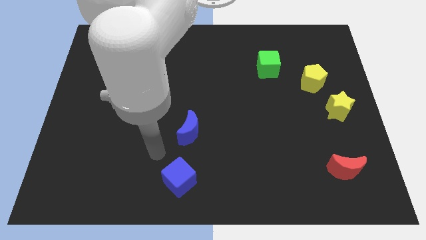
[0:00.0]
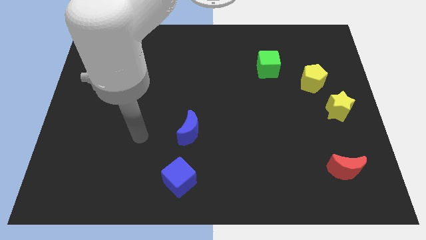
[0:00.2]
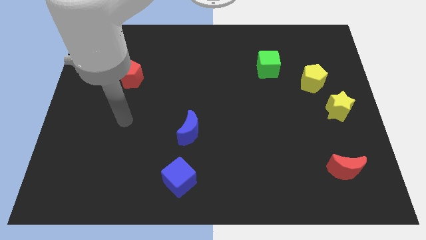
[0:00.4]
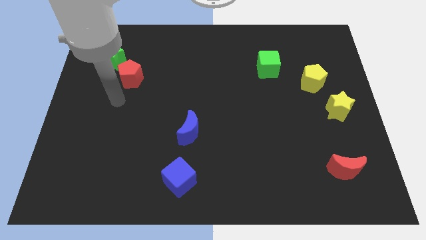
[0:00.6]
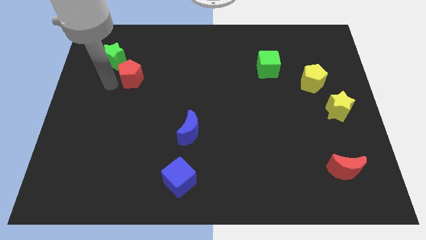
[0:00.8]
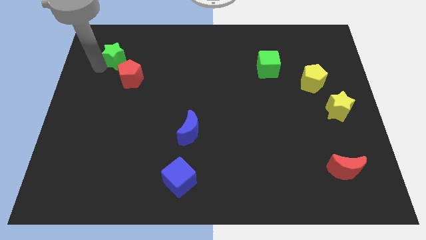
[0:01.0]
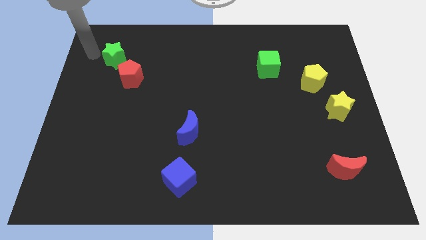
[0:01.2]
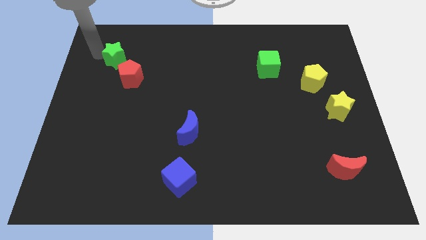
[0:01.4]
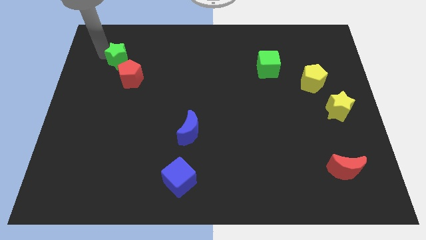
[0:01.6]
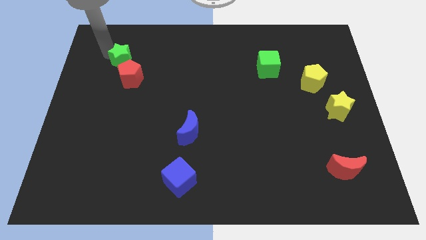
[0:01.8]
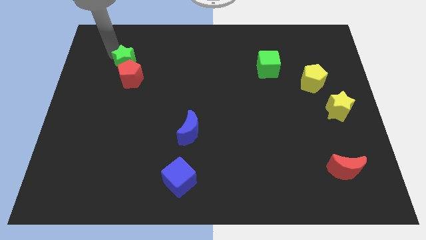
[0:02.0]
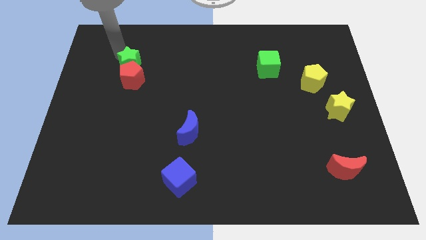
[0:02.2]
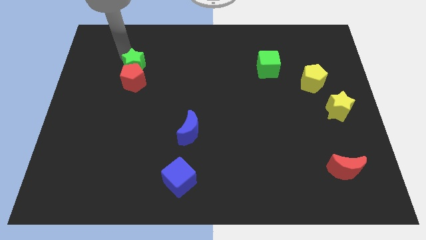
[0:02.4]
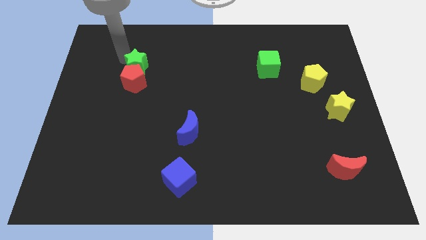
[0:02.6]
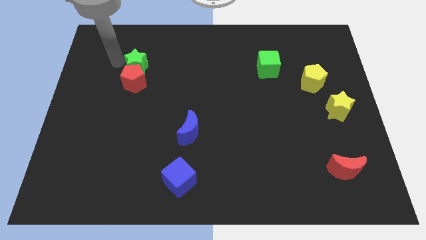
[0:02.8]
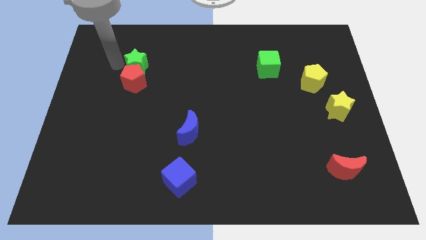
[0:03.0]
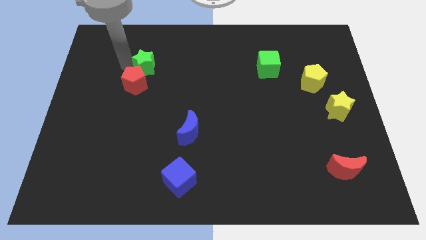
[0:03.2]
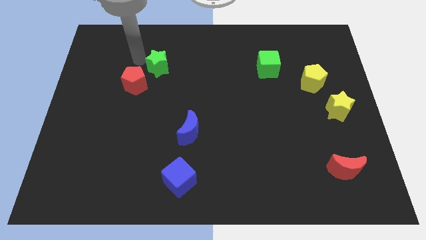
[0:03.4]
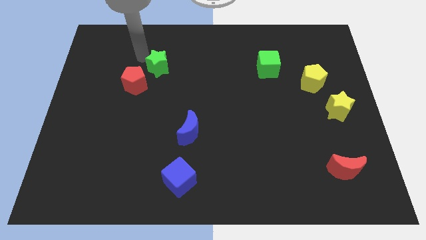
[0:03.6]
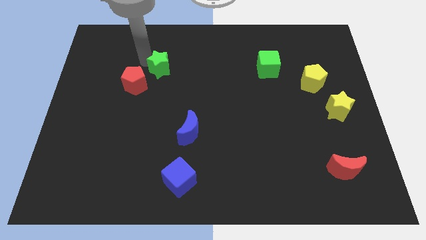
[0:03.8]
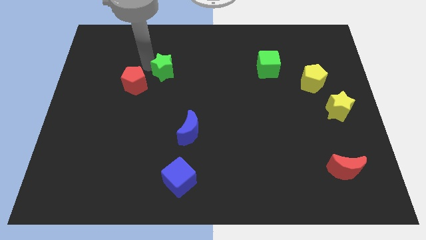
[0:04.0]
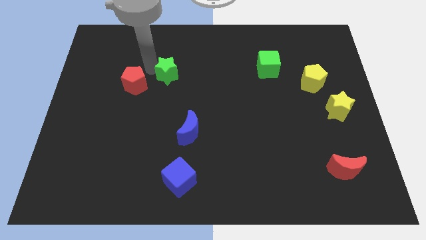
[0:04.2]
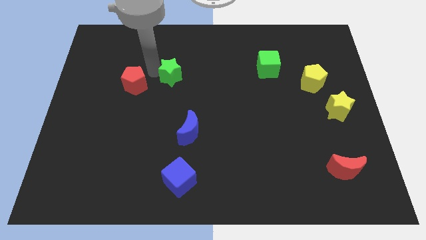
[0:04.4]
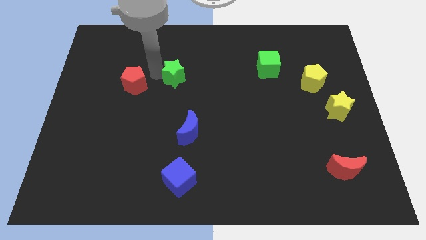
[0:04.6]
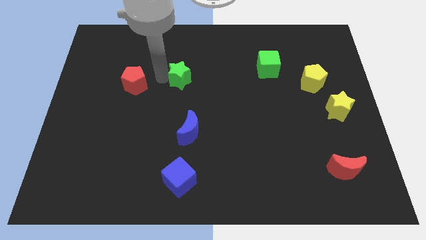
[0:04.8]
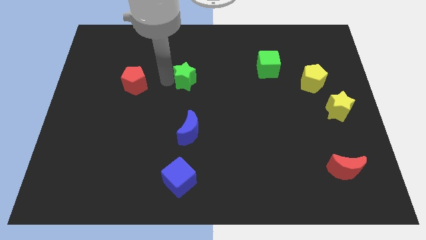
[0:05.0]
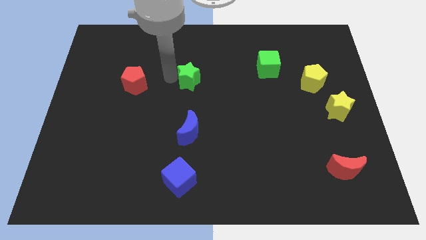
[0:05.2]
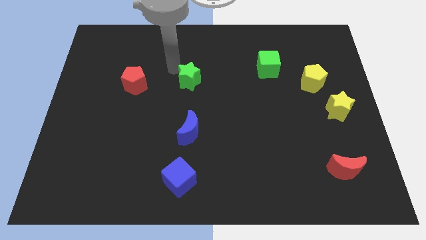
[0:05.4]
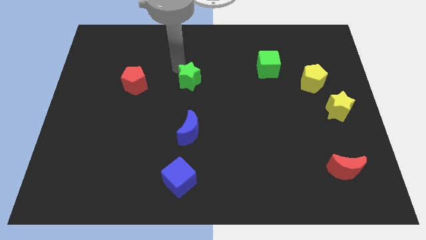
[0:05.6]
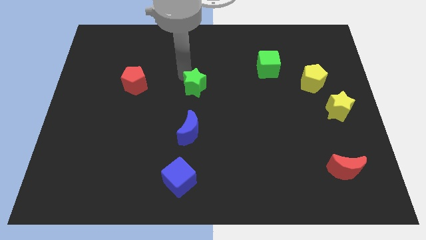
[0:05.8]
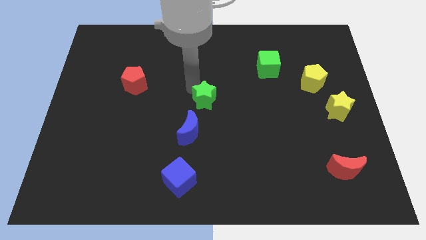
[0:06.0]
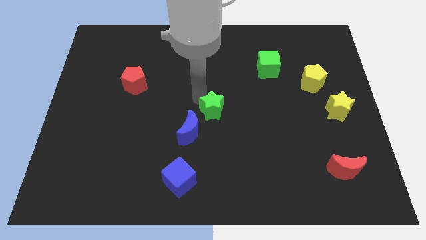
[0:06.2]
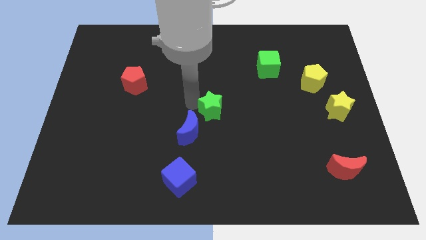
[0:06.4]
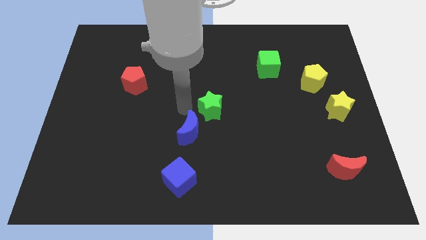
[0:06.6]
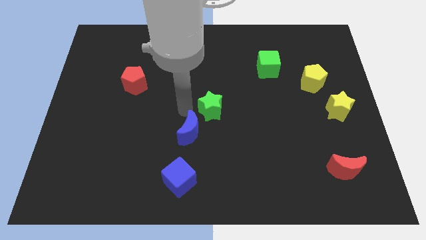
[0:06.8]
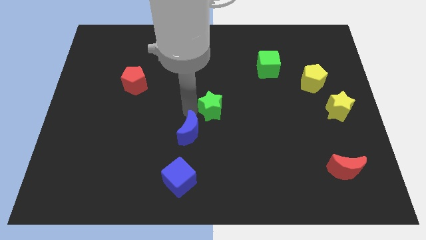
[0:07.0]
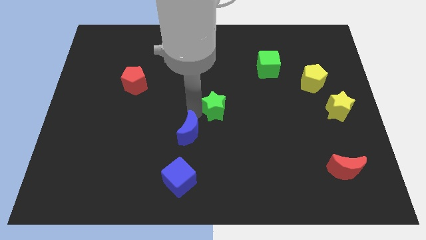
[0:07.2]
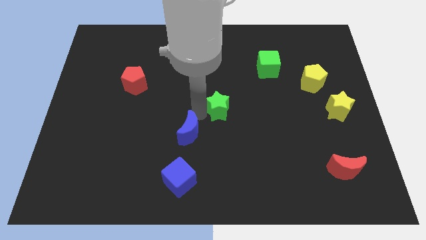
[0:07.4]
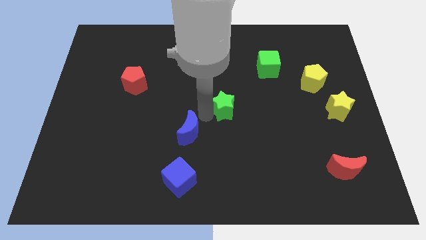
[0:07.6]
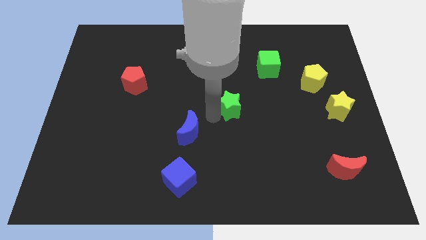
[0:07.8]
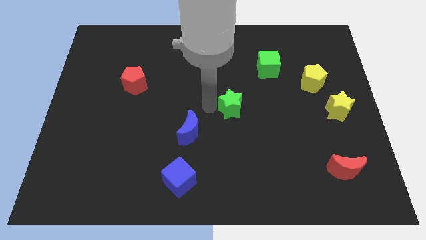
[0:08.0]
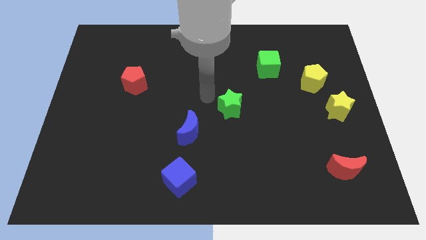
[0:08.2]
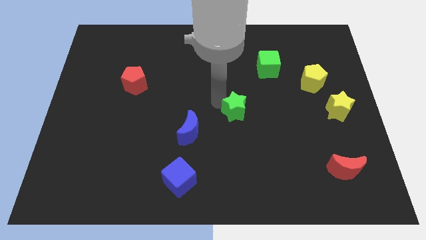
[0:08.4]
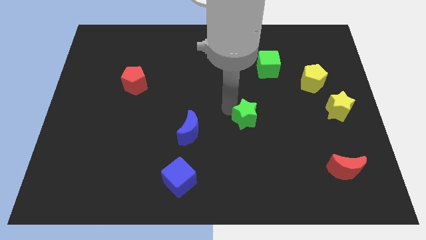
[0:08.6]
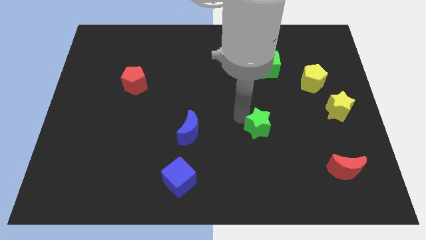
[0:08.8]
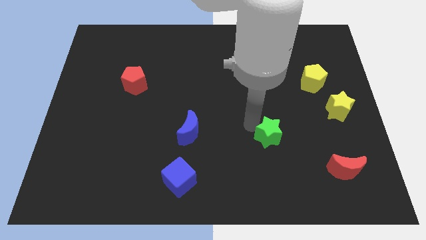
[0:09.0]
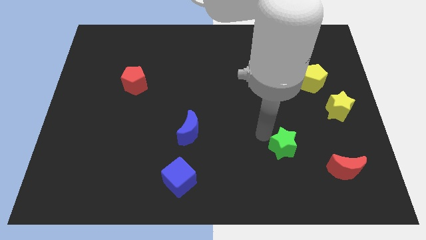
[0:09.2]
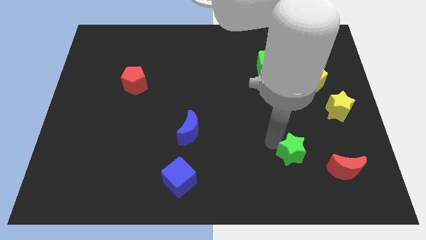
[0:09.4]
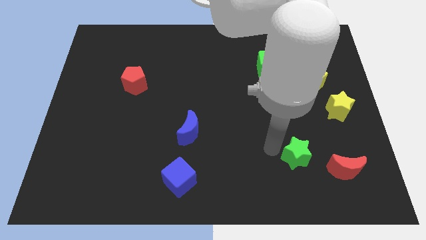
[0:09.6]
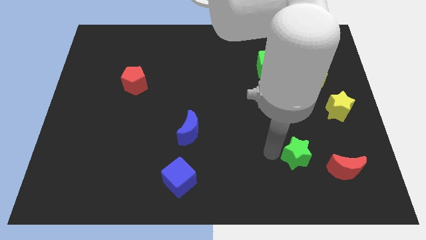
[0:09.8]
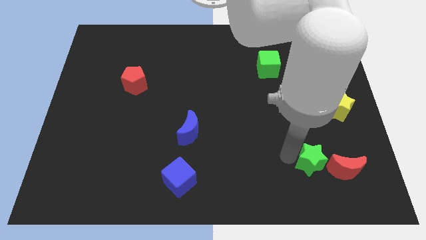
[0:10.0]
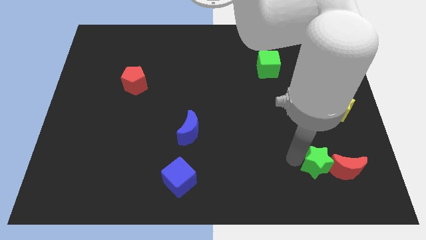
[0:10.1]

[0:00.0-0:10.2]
slide the green star towards the red moon

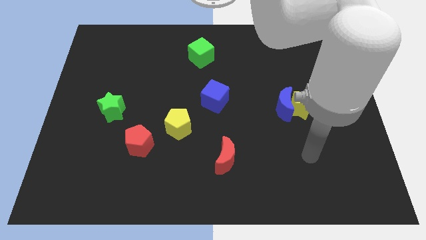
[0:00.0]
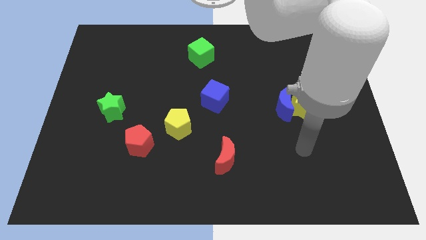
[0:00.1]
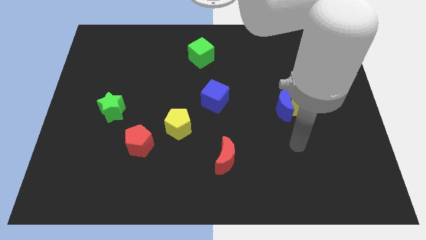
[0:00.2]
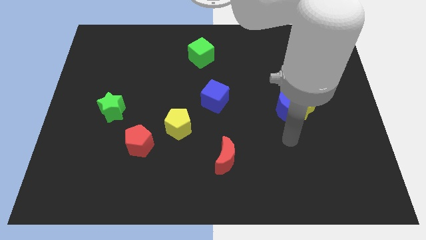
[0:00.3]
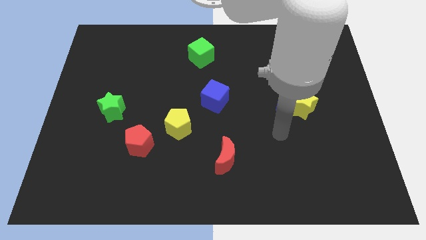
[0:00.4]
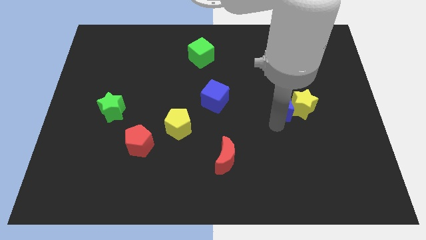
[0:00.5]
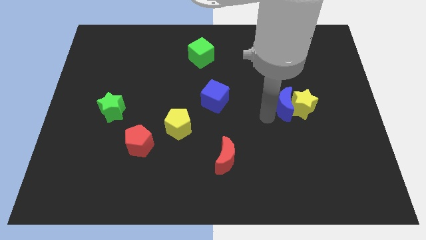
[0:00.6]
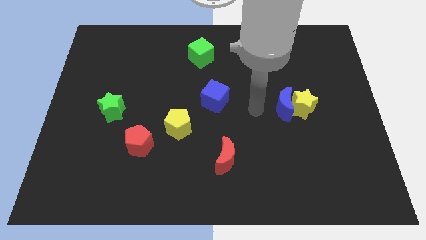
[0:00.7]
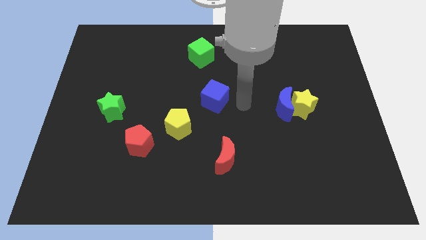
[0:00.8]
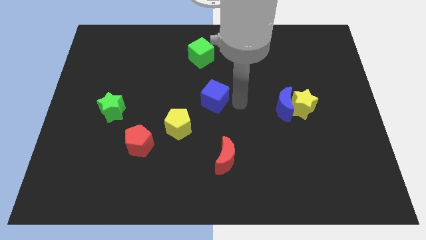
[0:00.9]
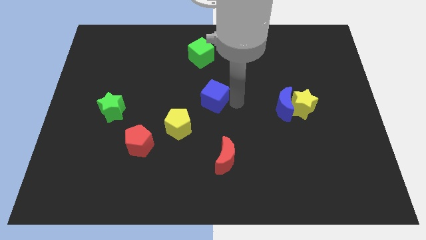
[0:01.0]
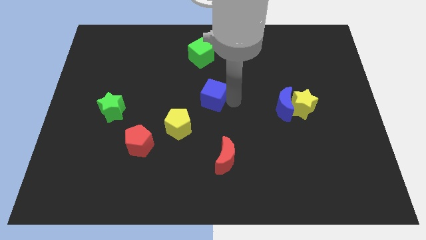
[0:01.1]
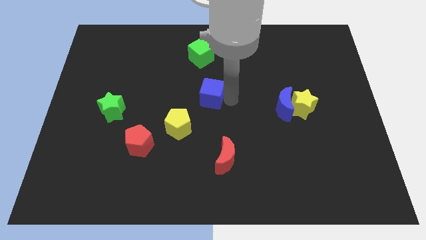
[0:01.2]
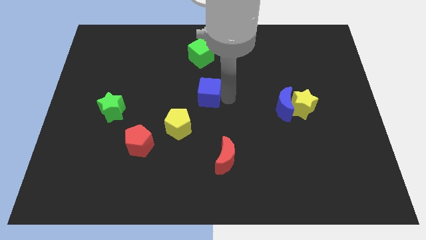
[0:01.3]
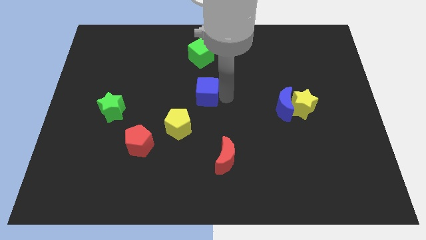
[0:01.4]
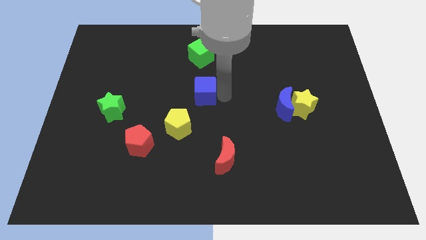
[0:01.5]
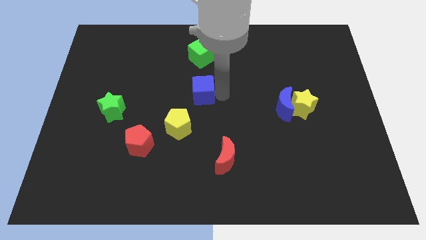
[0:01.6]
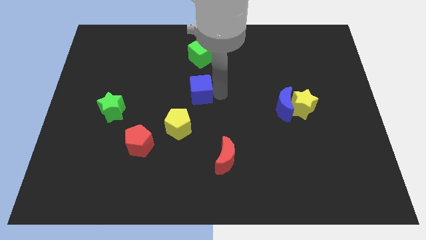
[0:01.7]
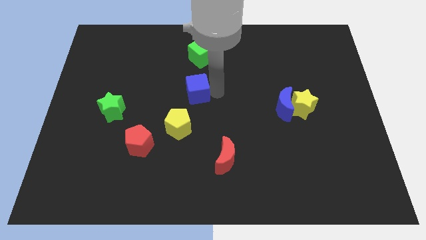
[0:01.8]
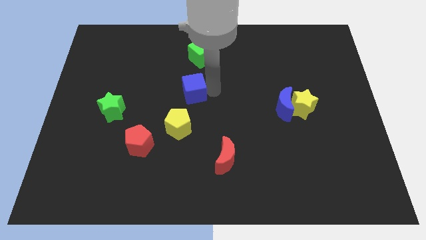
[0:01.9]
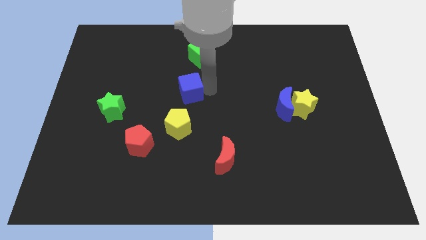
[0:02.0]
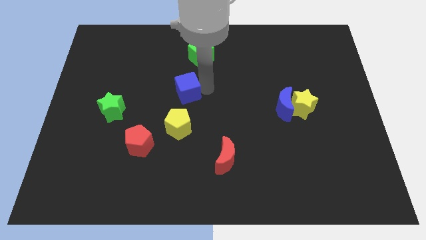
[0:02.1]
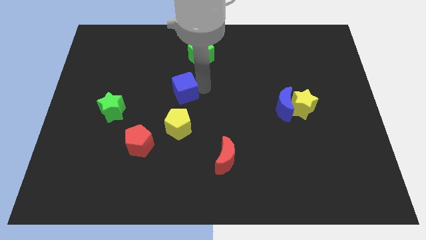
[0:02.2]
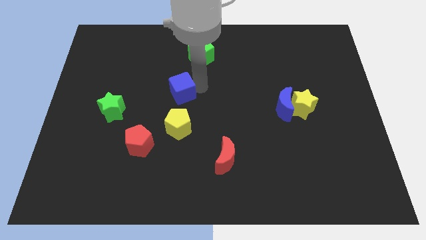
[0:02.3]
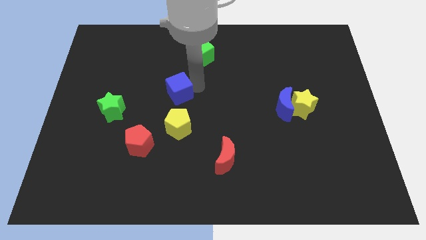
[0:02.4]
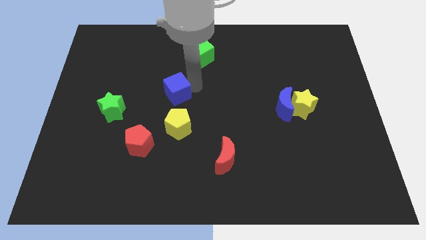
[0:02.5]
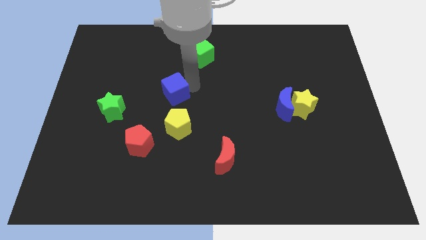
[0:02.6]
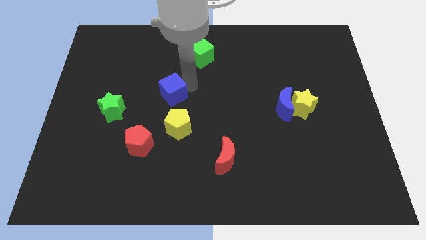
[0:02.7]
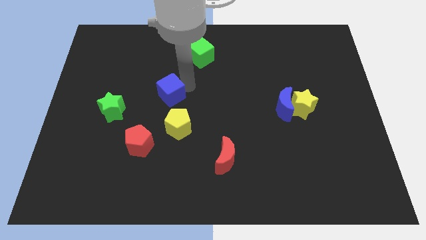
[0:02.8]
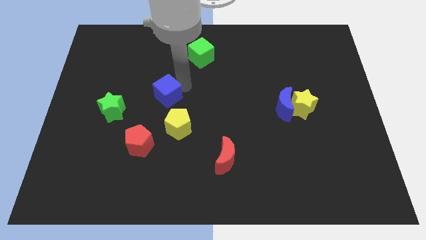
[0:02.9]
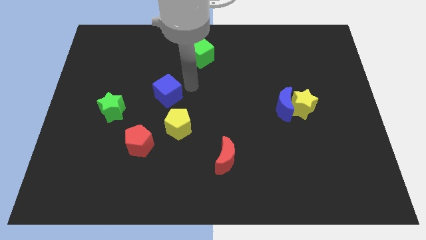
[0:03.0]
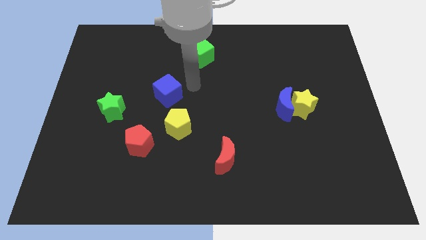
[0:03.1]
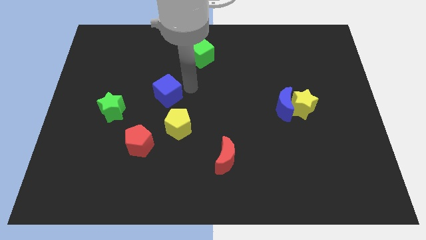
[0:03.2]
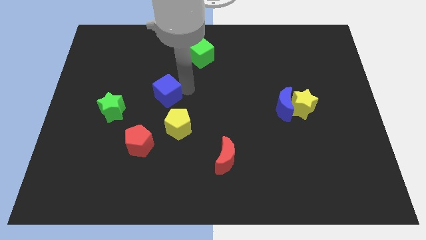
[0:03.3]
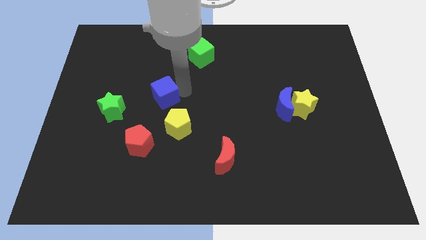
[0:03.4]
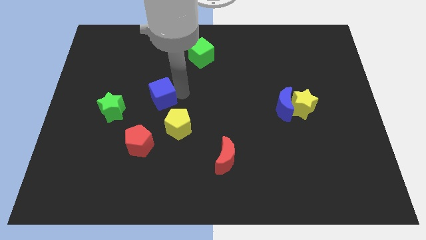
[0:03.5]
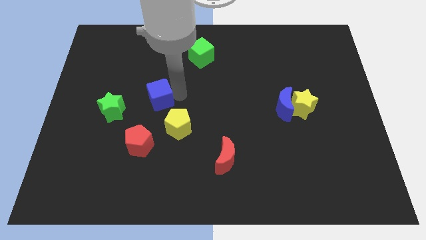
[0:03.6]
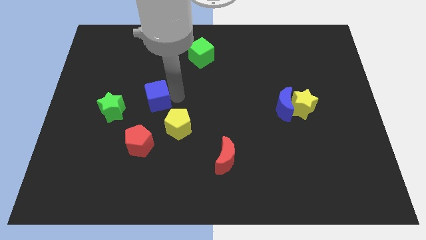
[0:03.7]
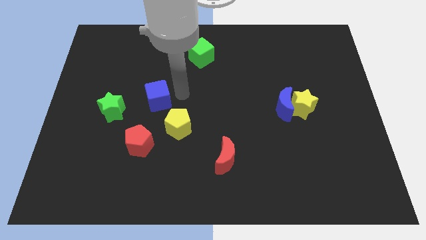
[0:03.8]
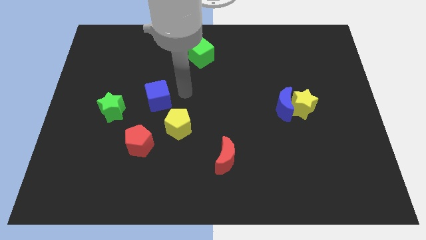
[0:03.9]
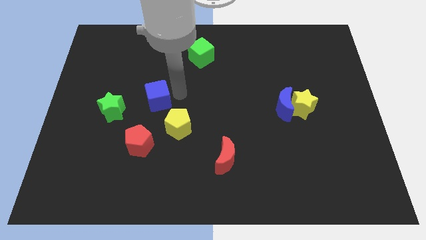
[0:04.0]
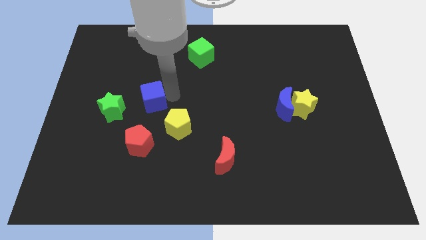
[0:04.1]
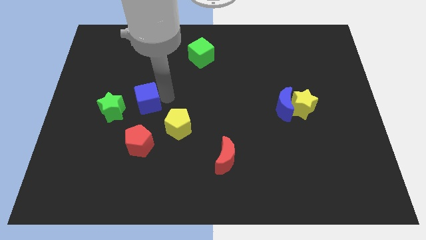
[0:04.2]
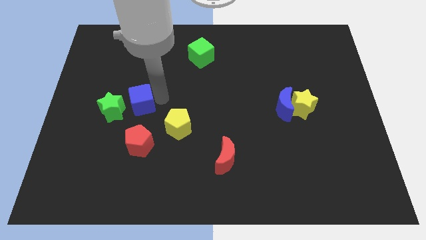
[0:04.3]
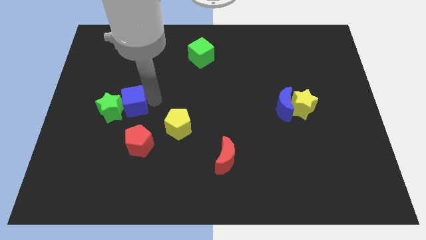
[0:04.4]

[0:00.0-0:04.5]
put the blue cube next to the green star
